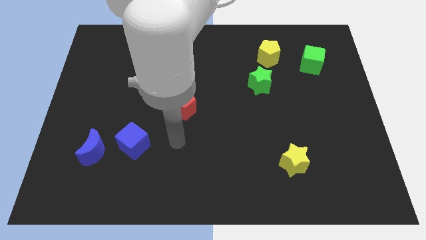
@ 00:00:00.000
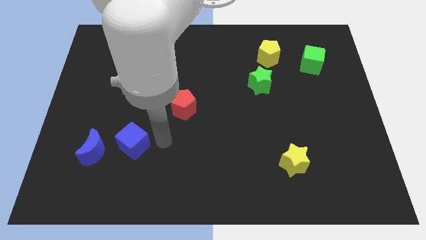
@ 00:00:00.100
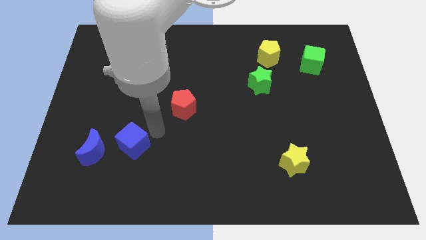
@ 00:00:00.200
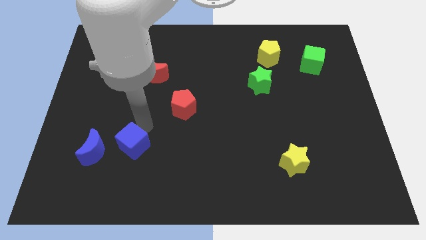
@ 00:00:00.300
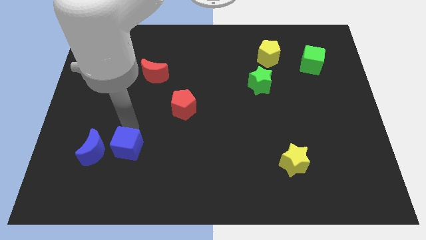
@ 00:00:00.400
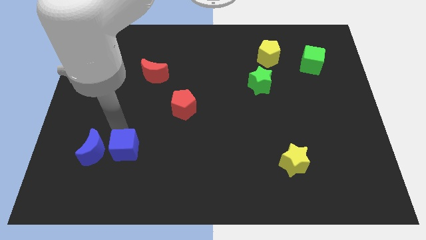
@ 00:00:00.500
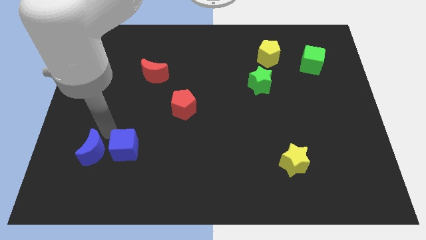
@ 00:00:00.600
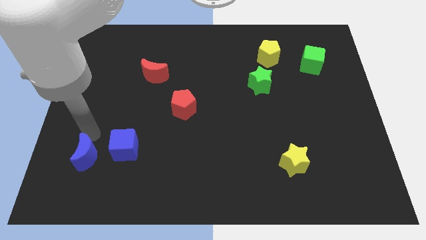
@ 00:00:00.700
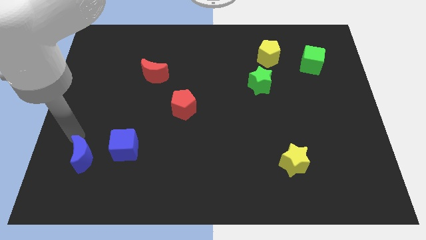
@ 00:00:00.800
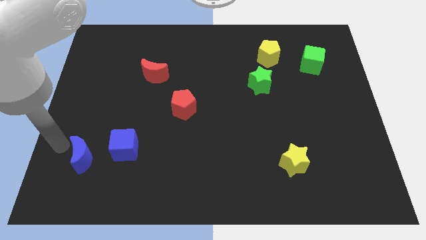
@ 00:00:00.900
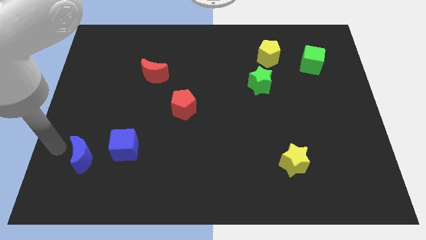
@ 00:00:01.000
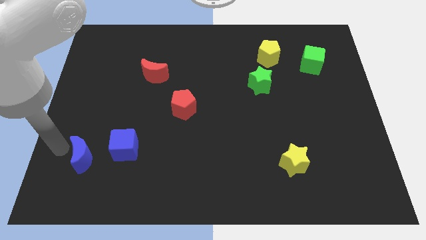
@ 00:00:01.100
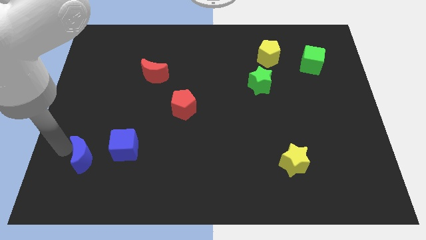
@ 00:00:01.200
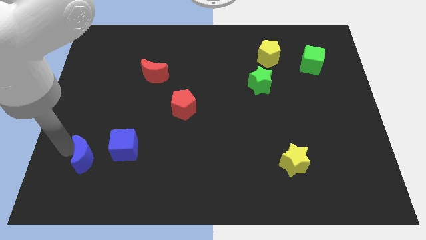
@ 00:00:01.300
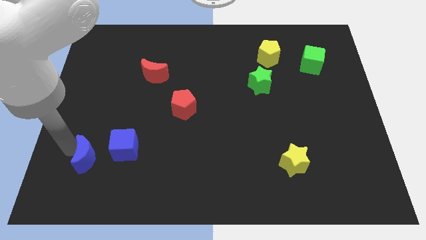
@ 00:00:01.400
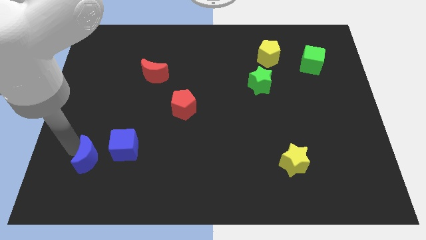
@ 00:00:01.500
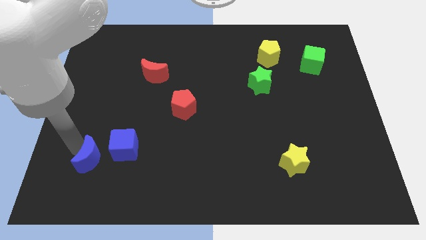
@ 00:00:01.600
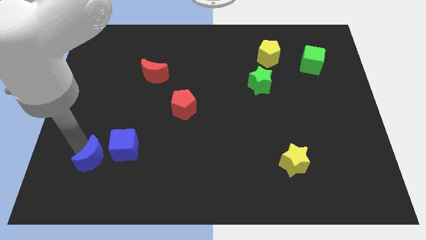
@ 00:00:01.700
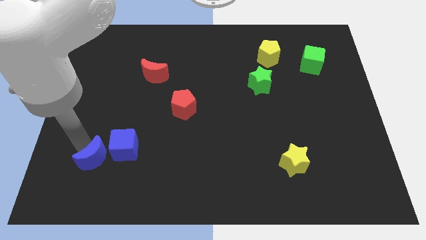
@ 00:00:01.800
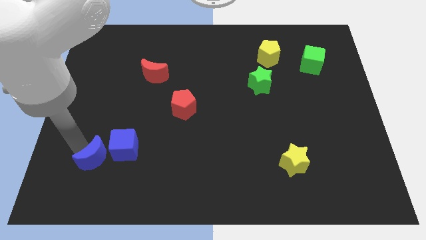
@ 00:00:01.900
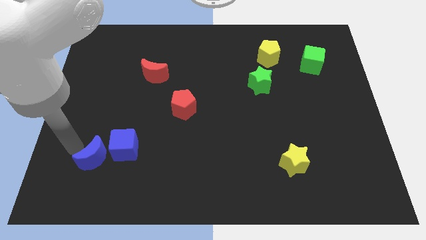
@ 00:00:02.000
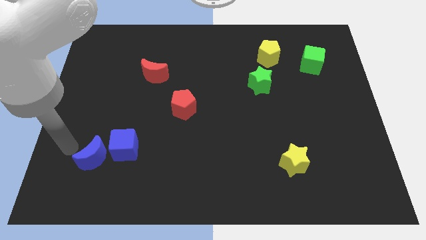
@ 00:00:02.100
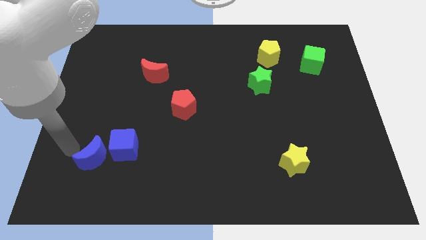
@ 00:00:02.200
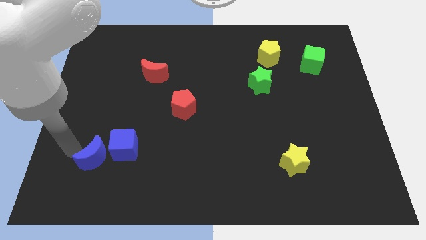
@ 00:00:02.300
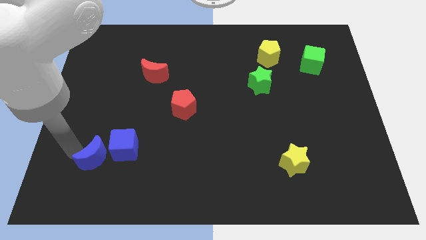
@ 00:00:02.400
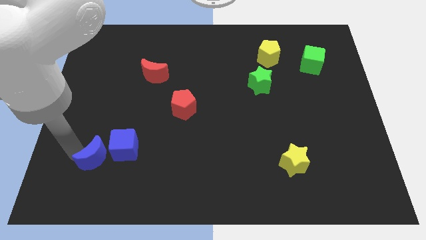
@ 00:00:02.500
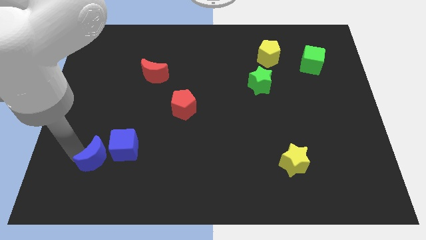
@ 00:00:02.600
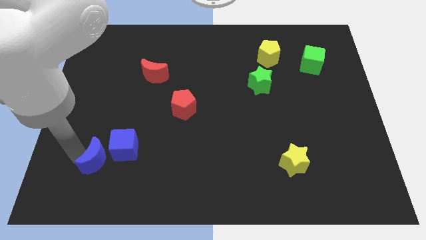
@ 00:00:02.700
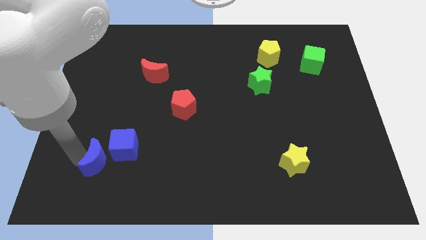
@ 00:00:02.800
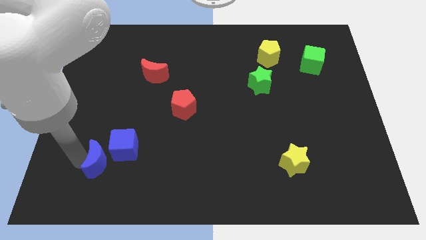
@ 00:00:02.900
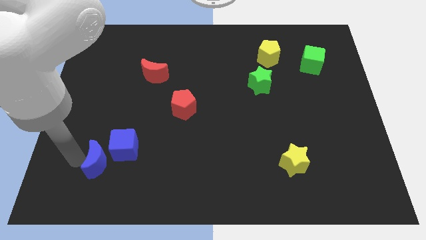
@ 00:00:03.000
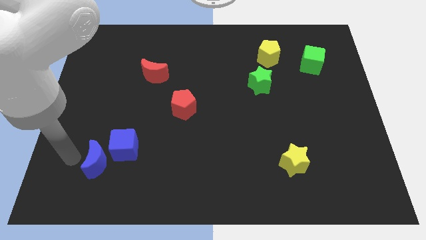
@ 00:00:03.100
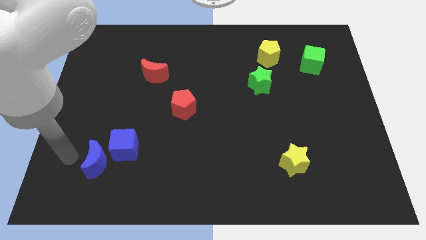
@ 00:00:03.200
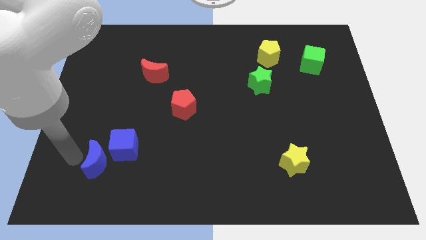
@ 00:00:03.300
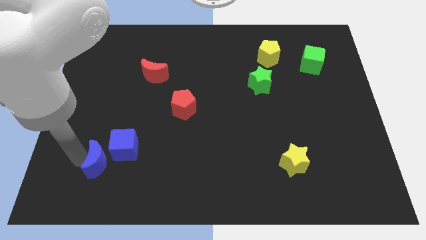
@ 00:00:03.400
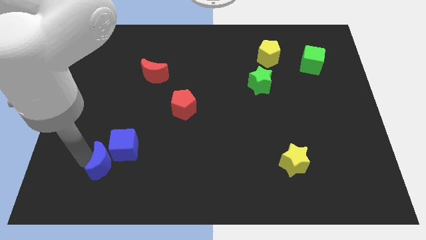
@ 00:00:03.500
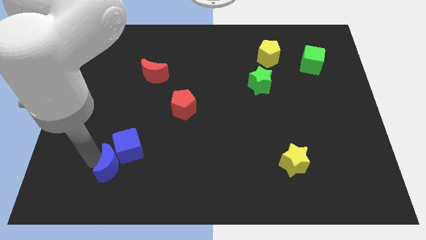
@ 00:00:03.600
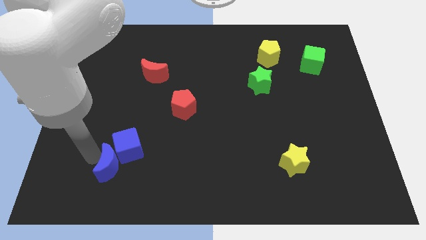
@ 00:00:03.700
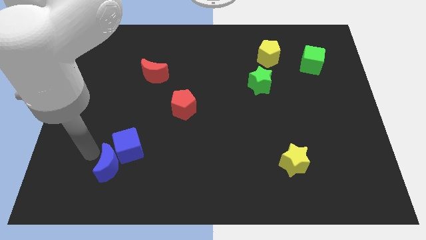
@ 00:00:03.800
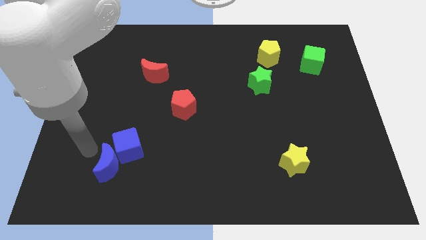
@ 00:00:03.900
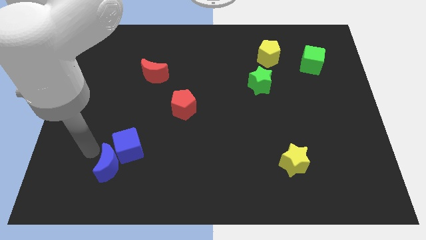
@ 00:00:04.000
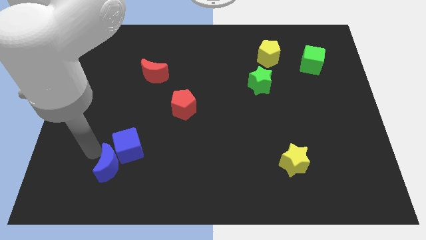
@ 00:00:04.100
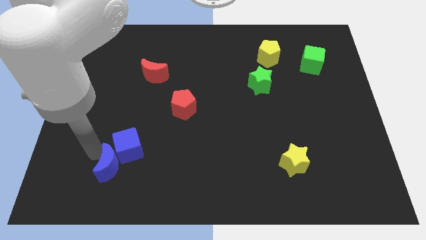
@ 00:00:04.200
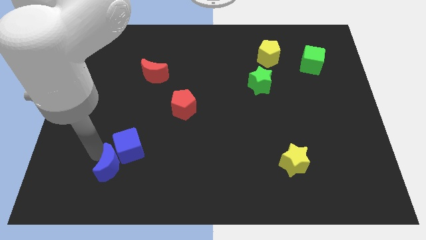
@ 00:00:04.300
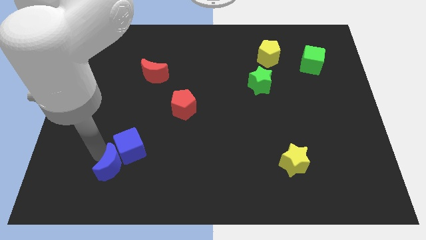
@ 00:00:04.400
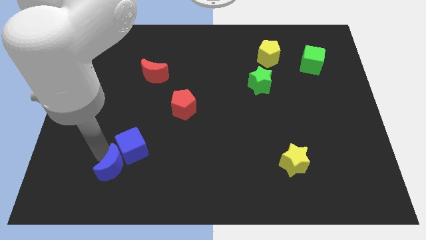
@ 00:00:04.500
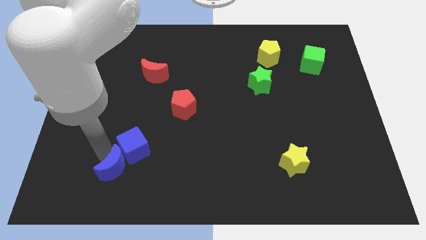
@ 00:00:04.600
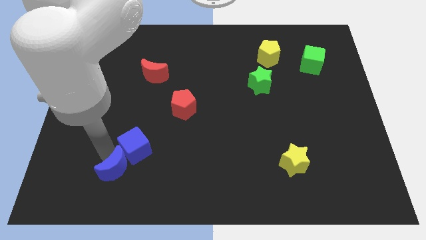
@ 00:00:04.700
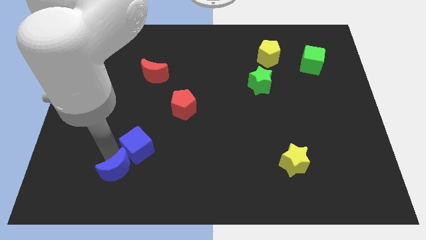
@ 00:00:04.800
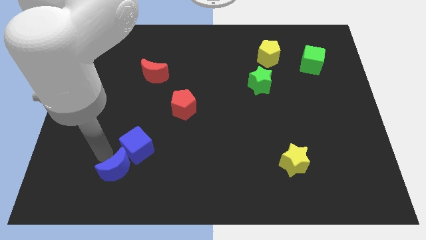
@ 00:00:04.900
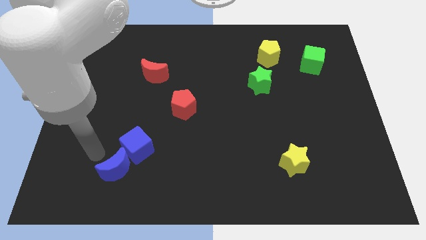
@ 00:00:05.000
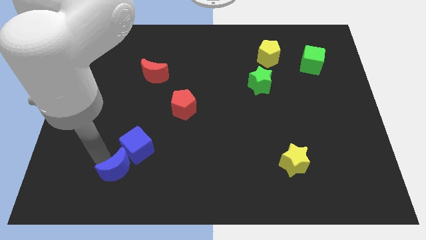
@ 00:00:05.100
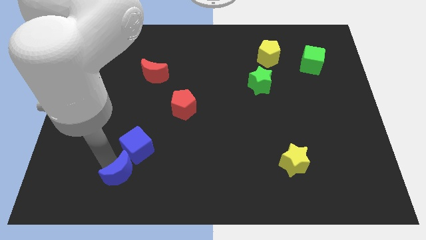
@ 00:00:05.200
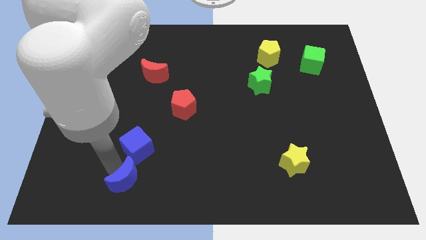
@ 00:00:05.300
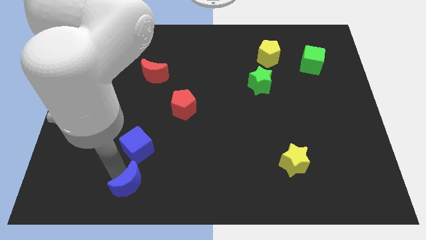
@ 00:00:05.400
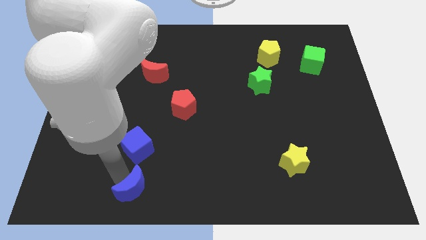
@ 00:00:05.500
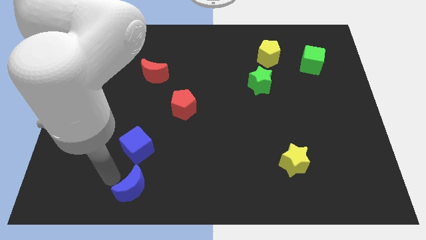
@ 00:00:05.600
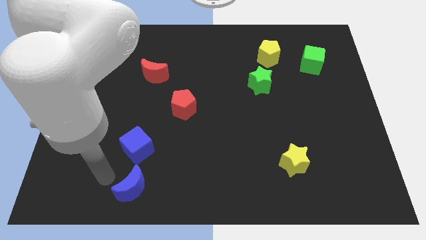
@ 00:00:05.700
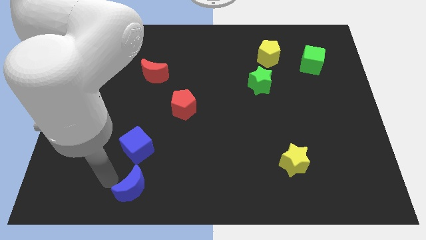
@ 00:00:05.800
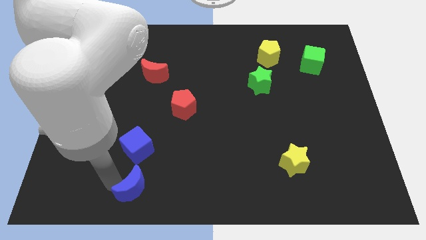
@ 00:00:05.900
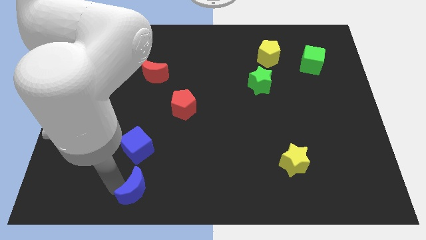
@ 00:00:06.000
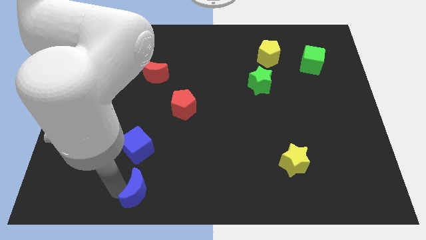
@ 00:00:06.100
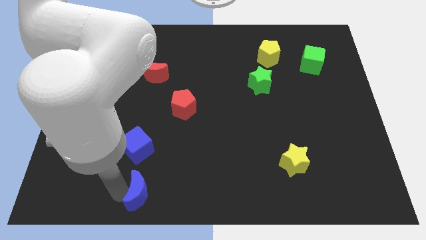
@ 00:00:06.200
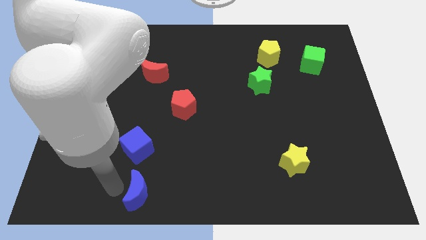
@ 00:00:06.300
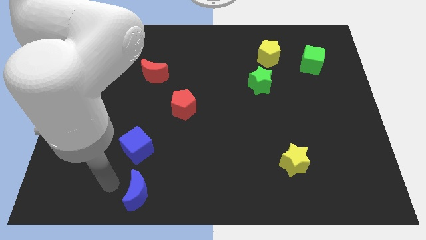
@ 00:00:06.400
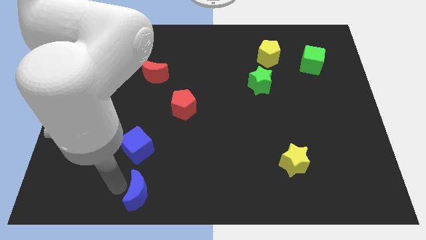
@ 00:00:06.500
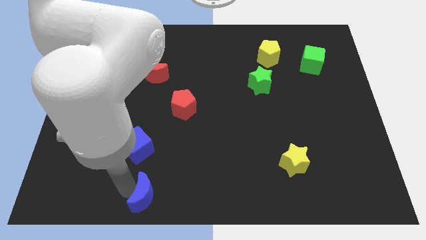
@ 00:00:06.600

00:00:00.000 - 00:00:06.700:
slide the blue moon to the bottom
